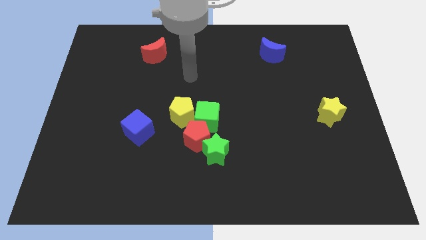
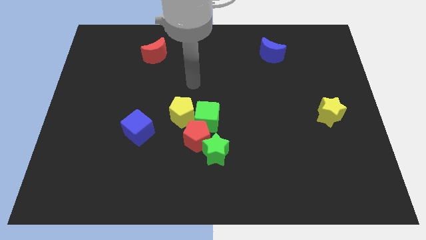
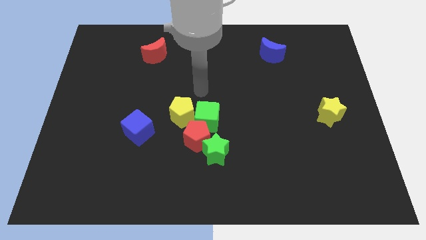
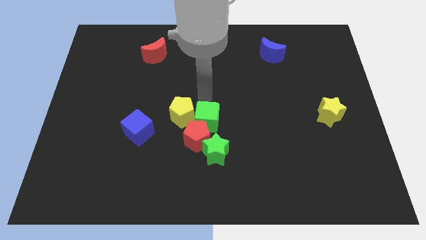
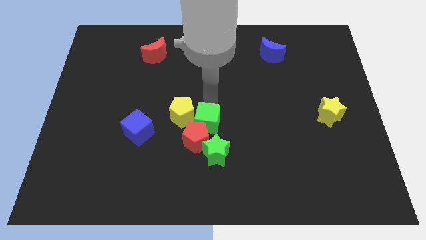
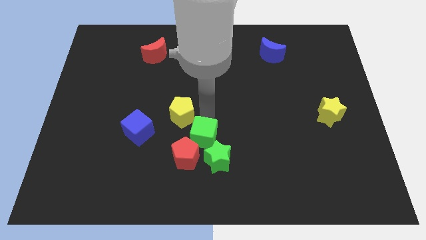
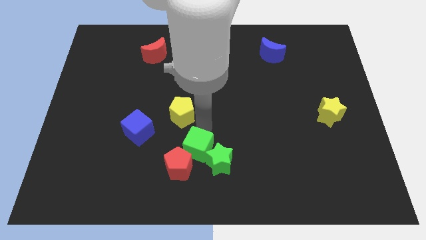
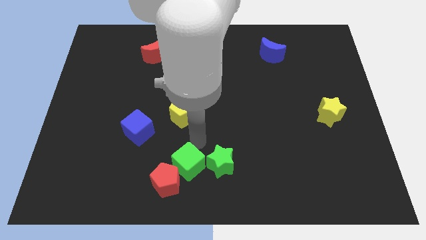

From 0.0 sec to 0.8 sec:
separate the red pentagon from the green cube, green star, and yellow pentagon

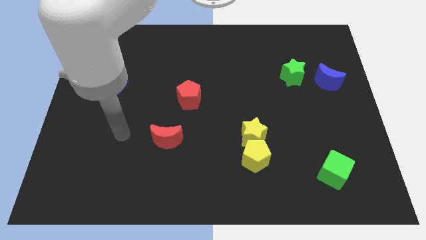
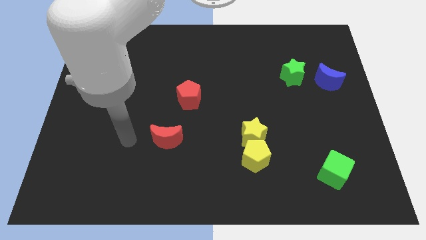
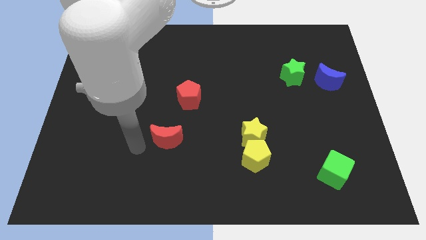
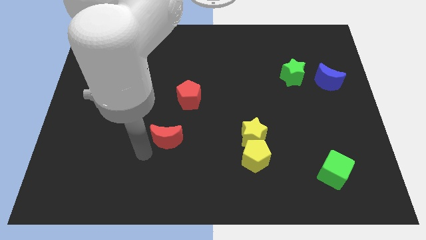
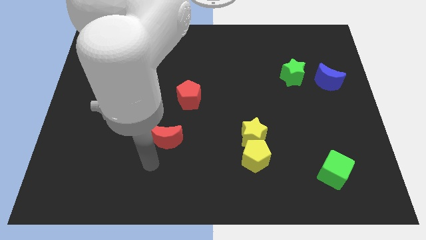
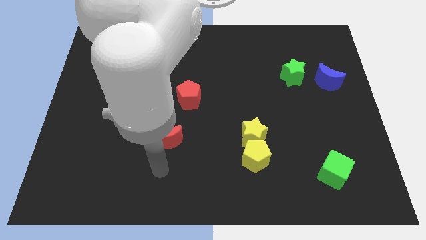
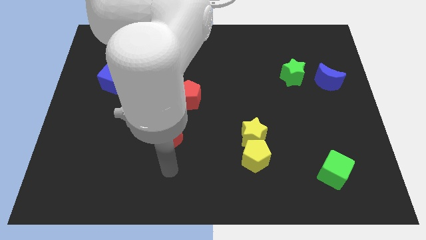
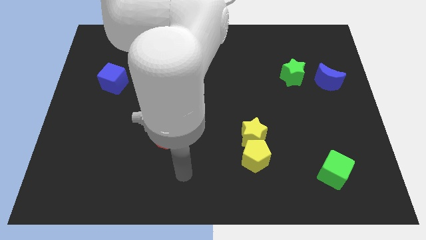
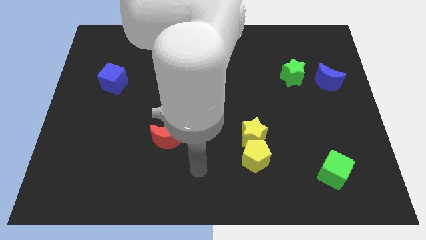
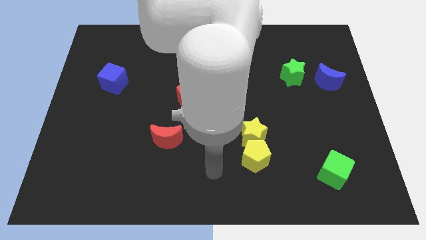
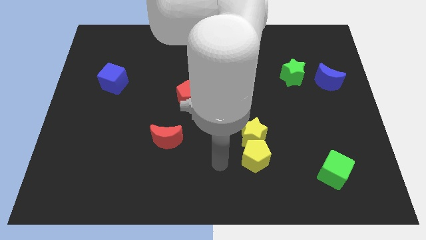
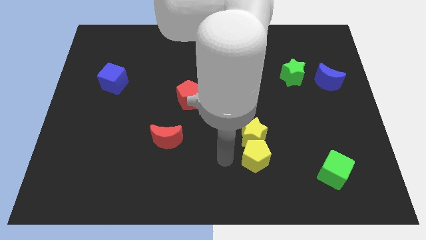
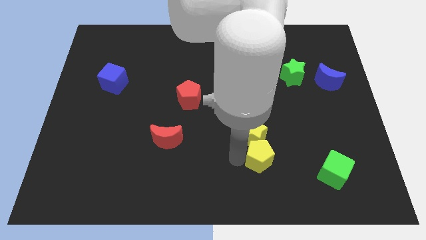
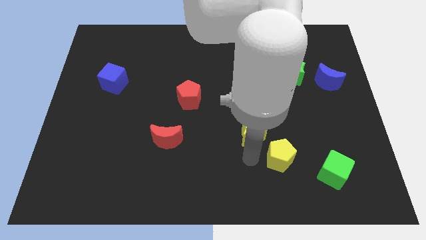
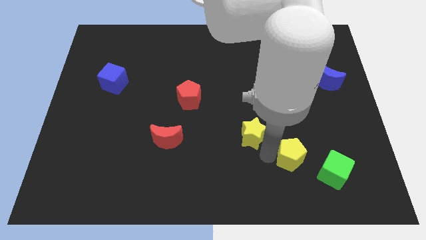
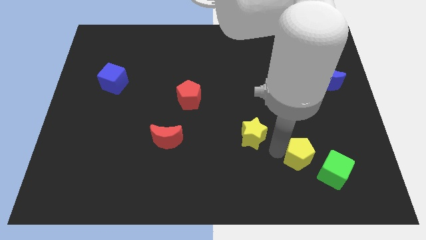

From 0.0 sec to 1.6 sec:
pull the yellow star apart from the yellow pentagon

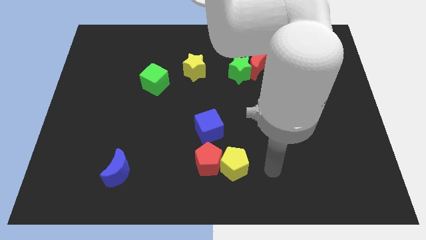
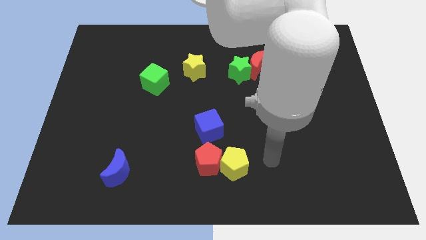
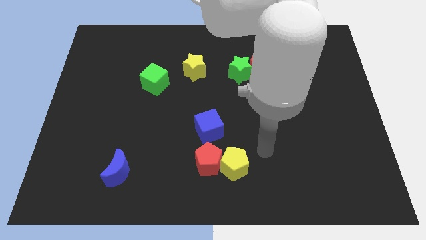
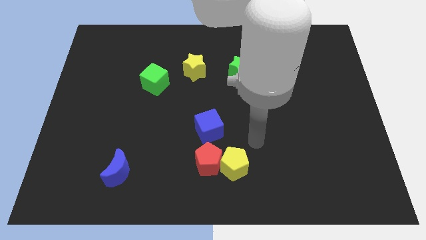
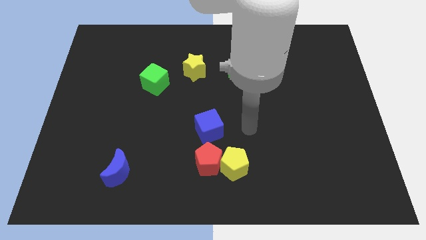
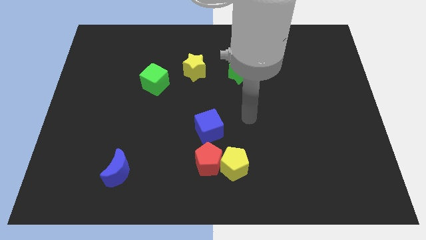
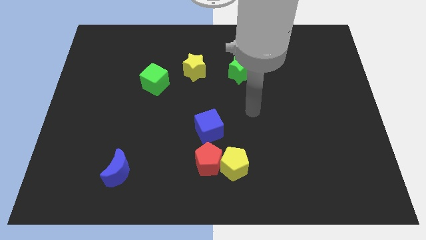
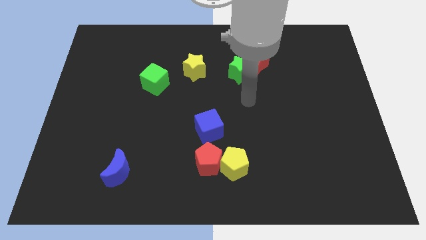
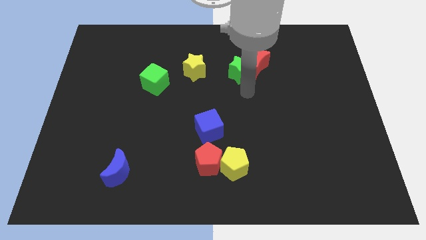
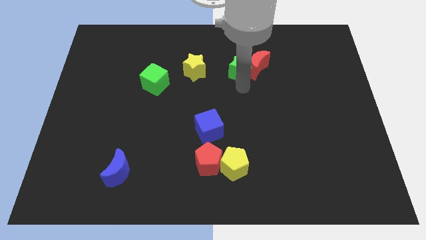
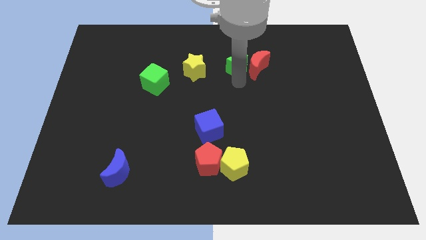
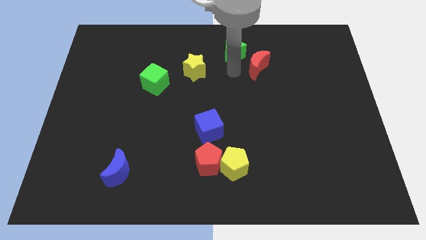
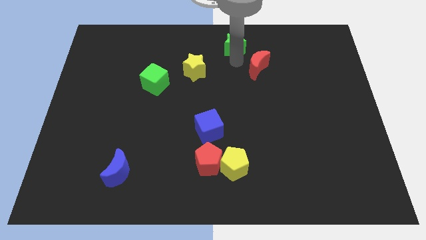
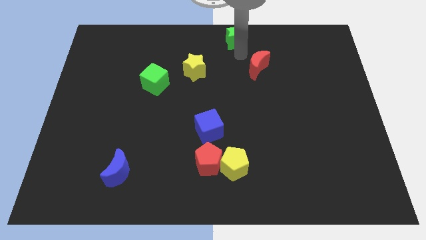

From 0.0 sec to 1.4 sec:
move the red moon away from the green star

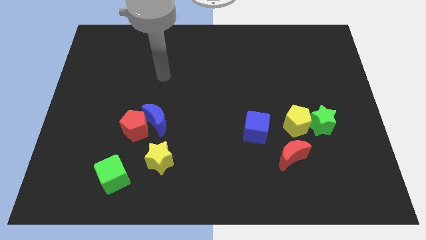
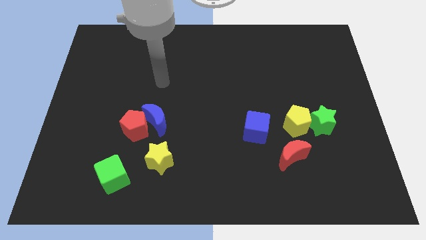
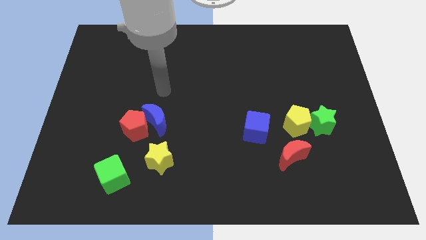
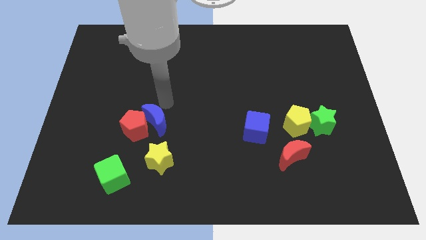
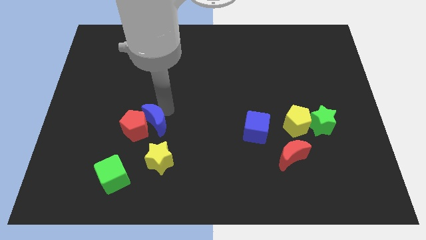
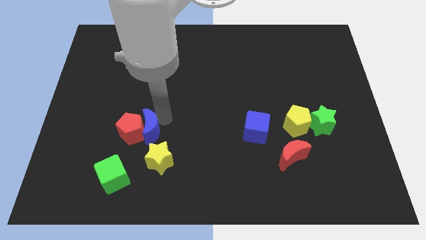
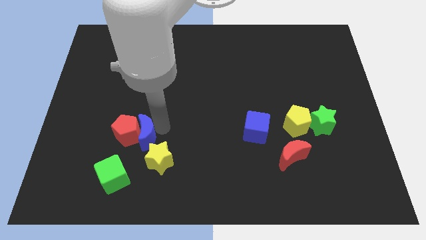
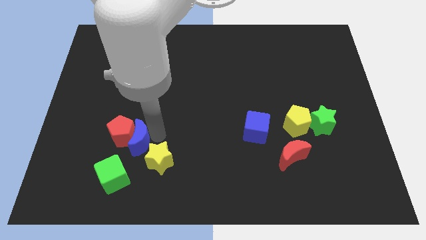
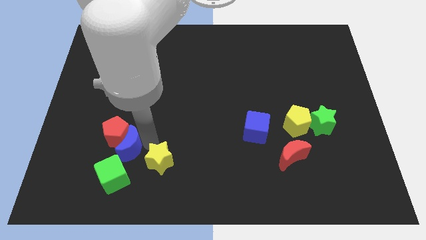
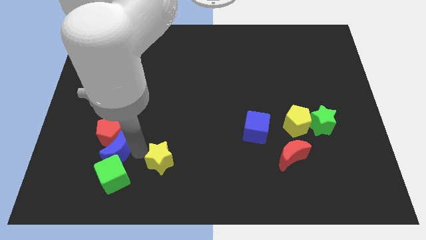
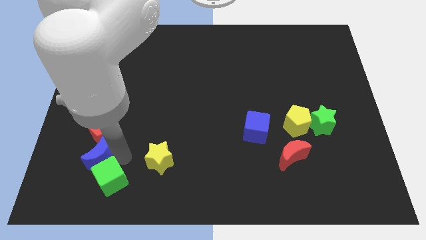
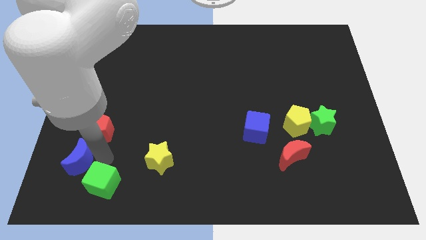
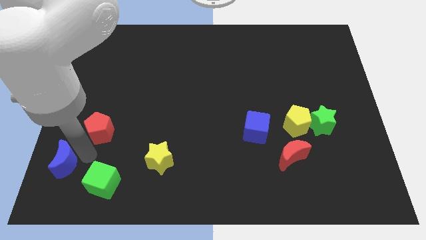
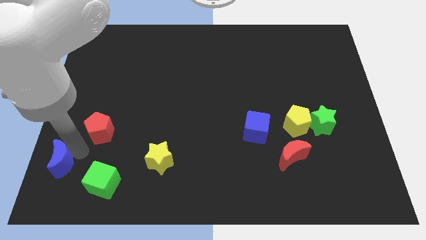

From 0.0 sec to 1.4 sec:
pull the red pentagon apart from the blue moon

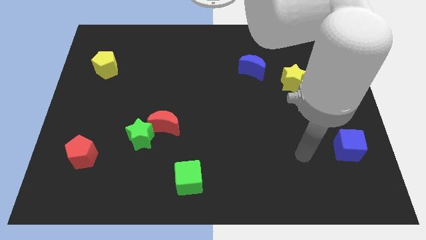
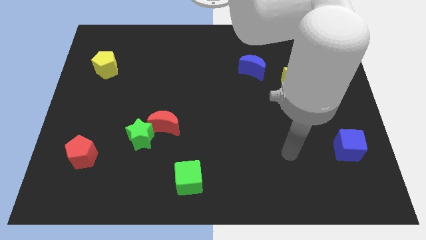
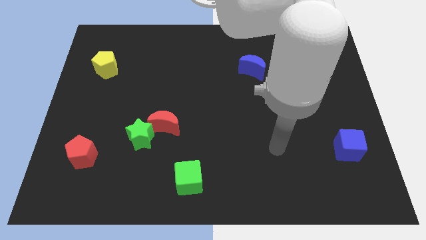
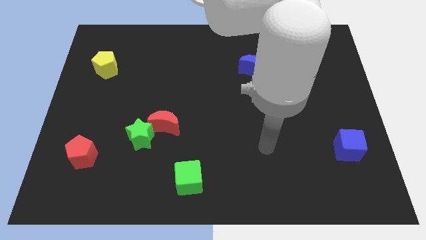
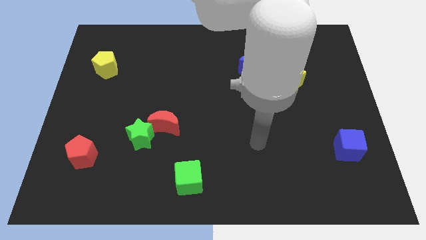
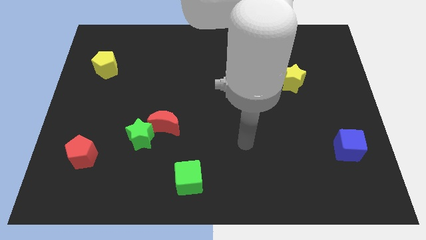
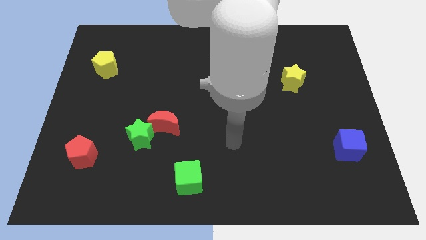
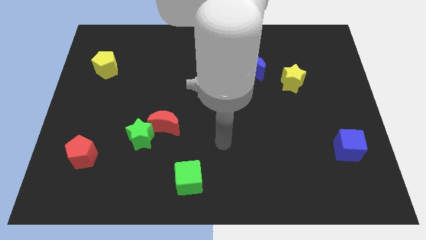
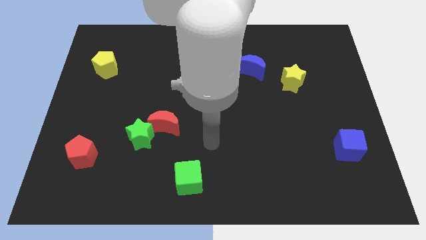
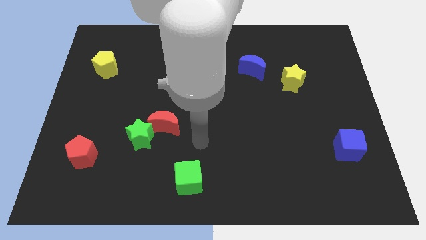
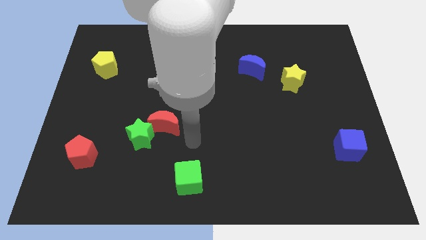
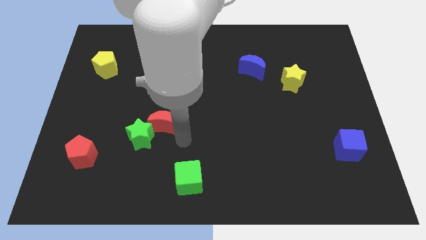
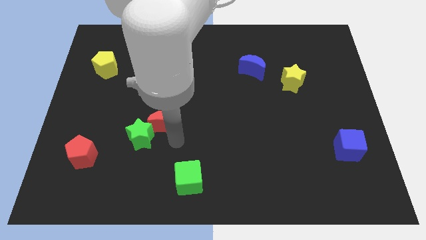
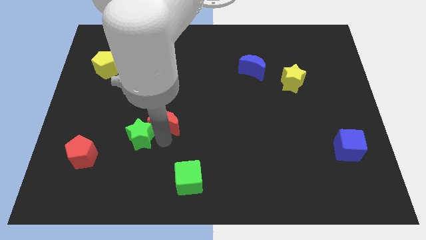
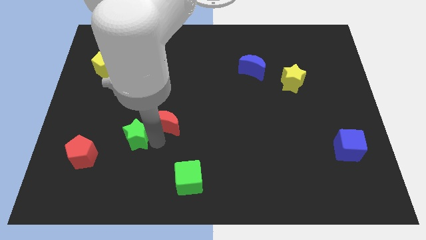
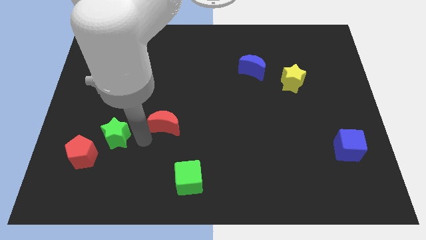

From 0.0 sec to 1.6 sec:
separate the red moon from the green star

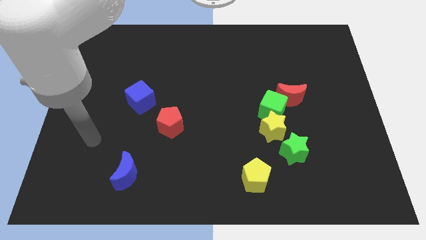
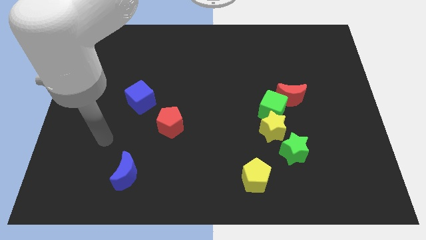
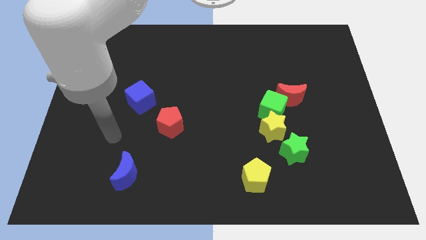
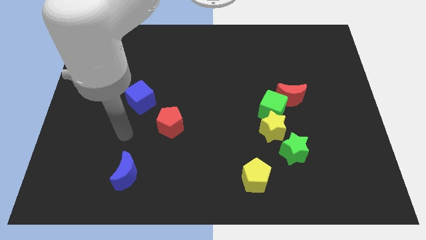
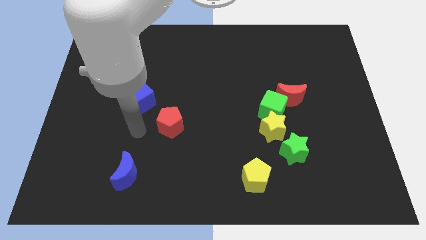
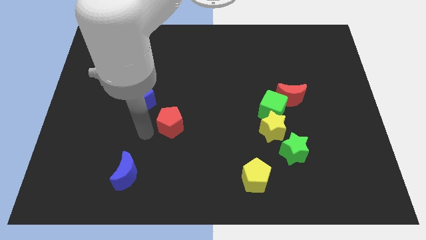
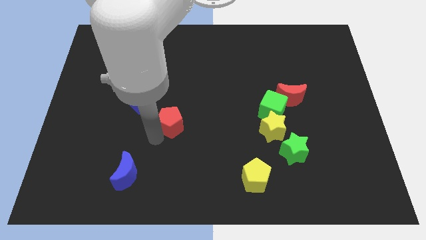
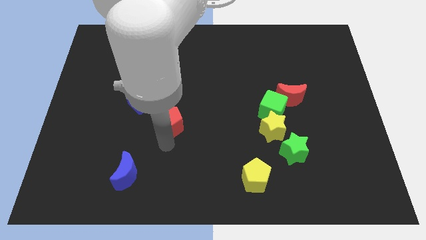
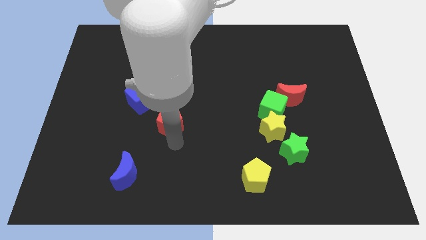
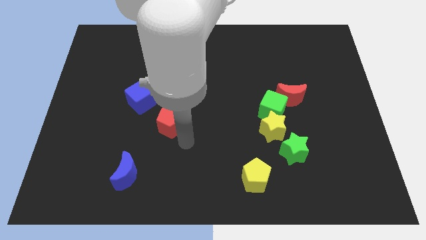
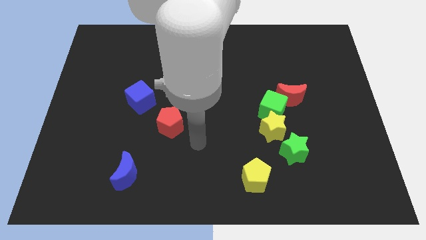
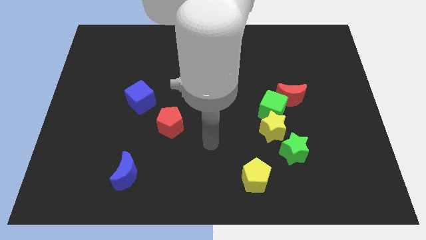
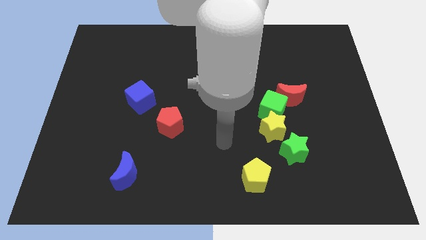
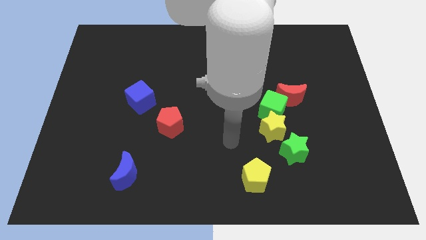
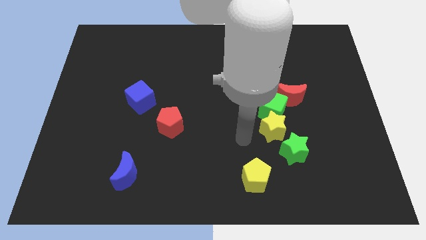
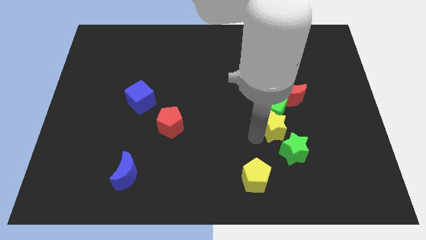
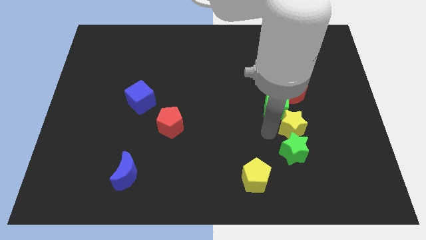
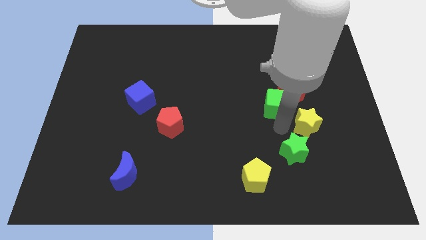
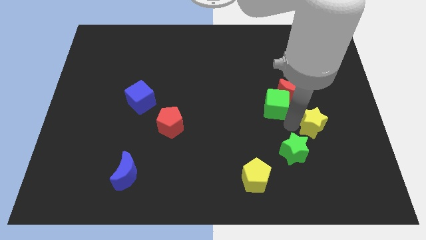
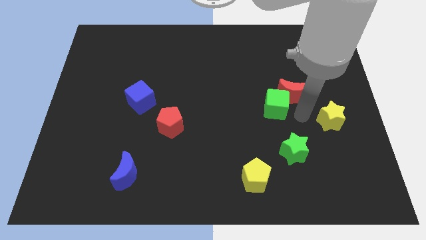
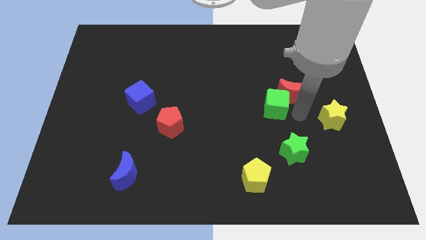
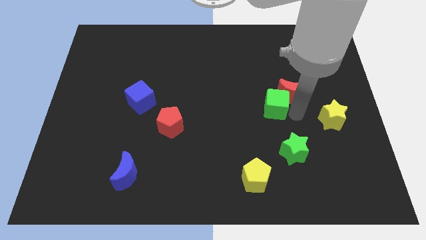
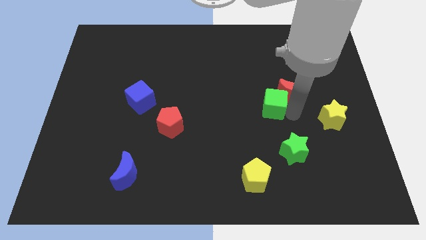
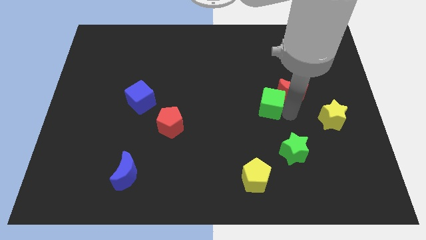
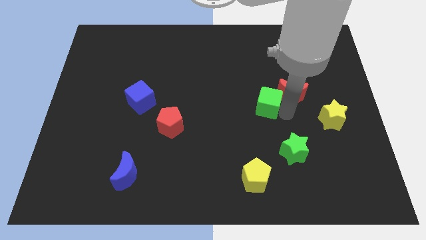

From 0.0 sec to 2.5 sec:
pull the green cube apart from the yellow star and red moon
